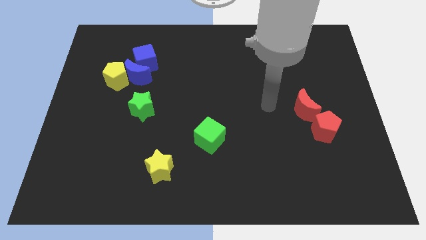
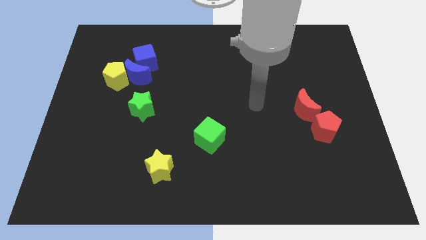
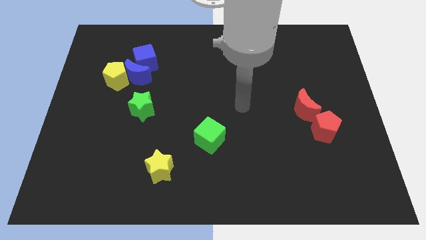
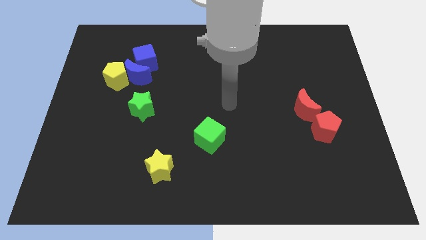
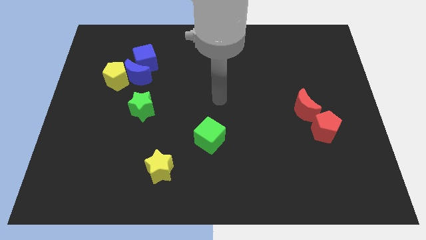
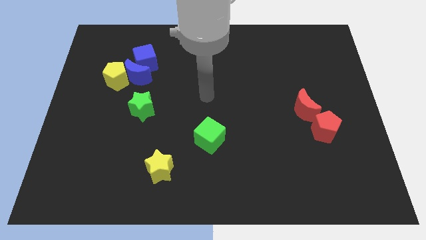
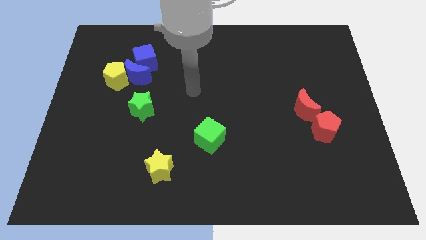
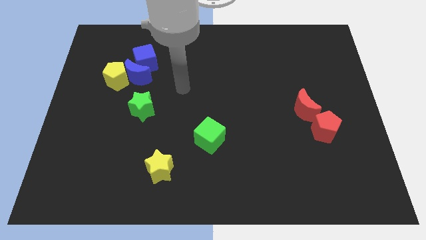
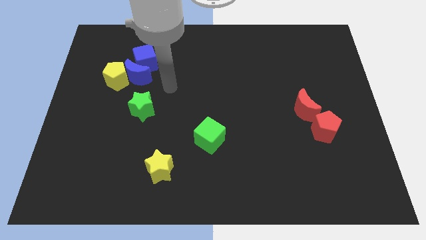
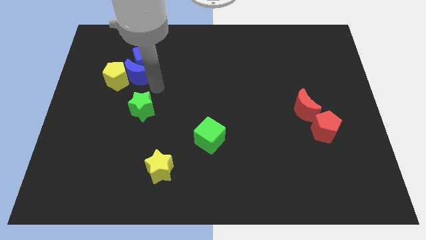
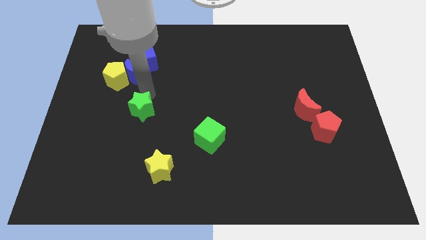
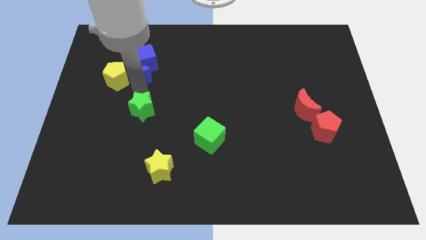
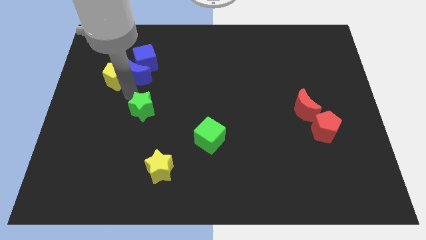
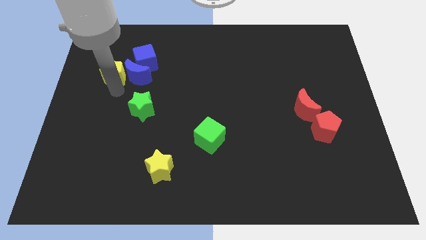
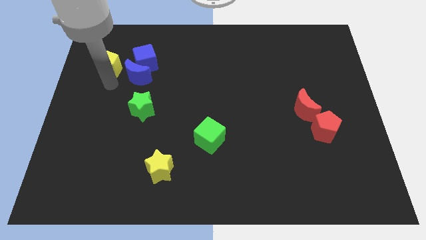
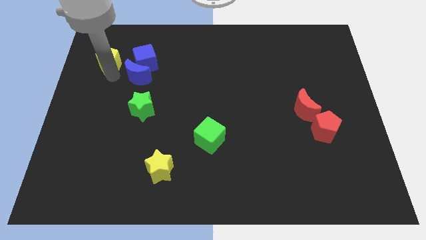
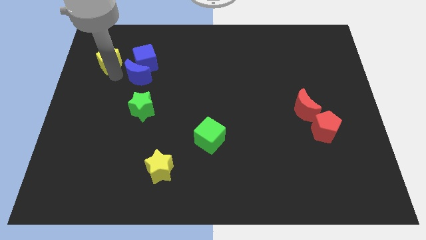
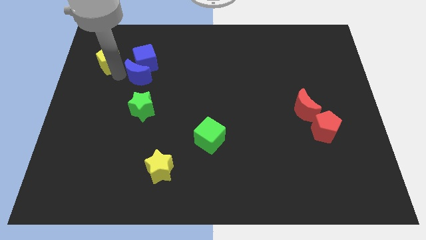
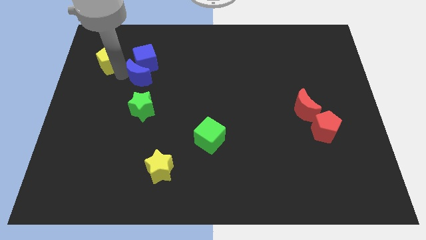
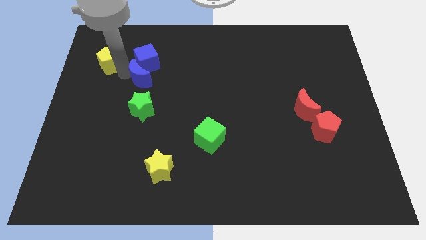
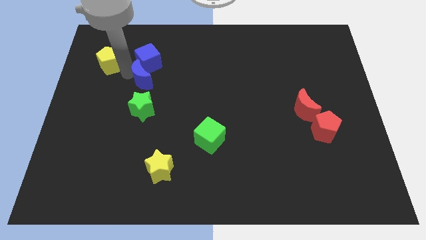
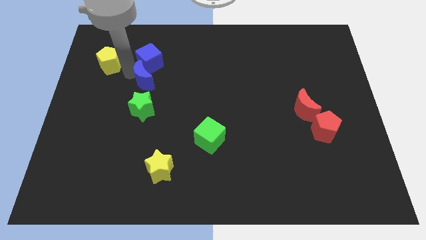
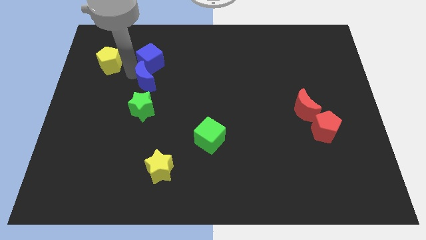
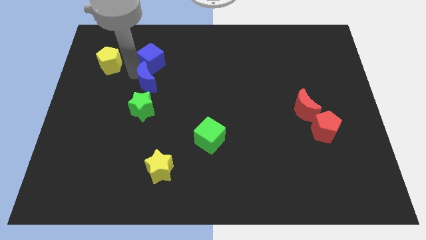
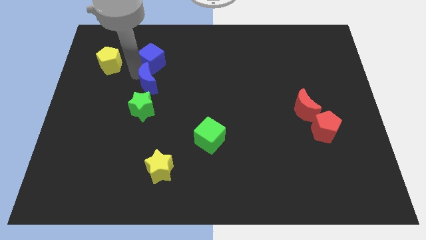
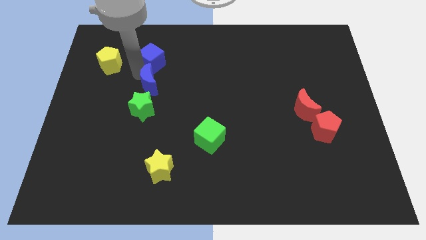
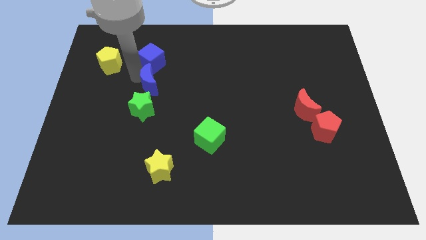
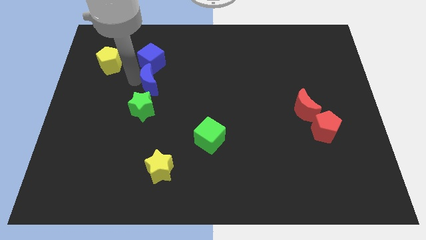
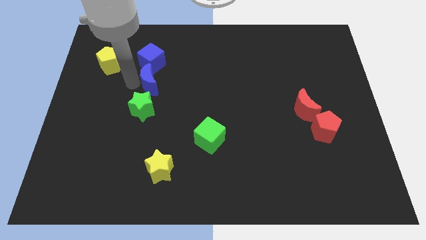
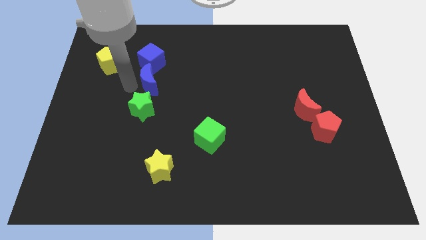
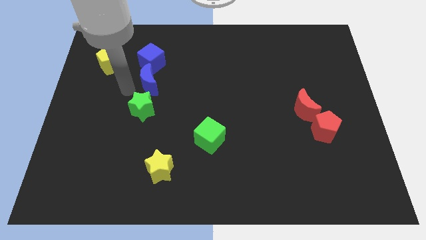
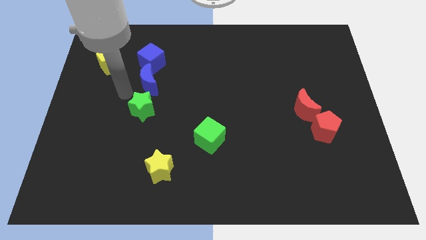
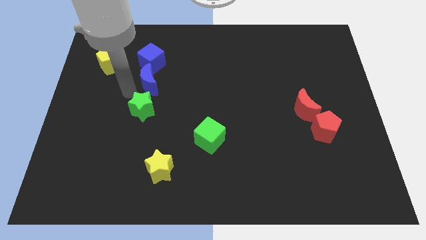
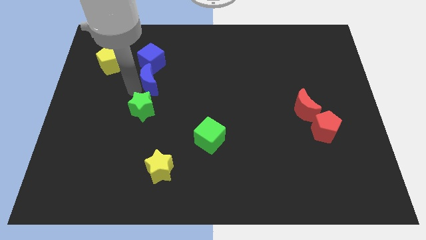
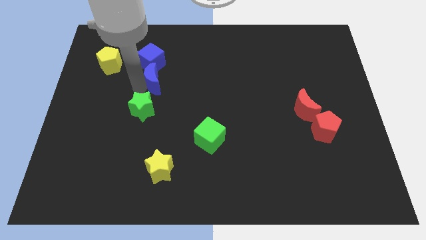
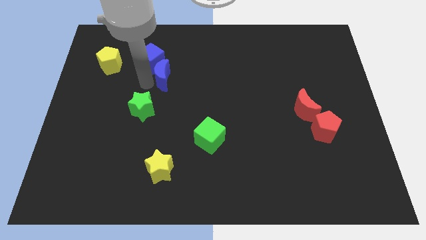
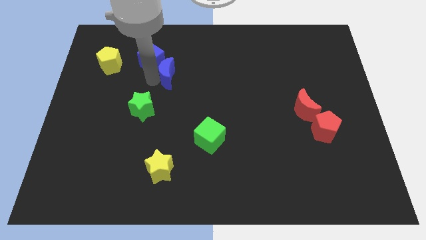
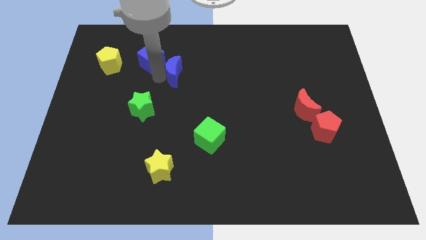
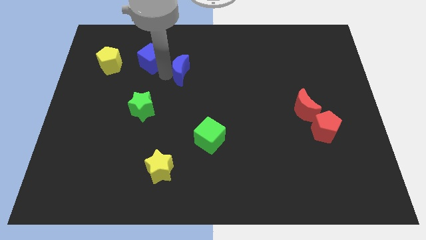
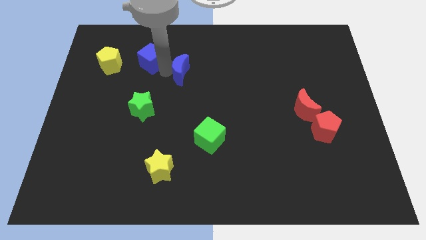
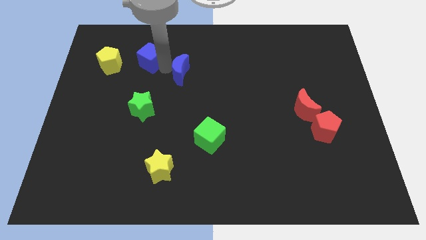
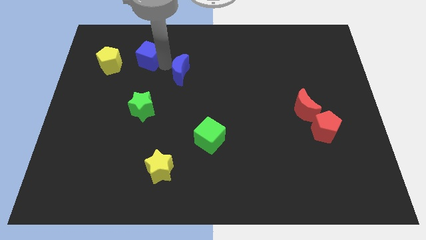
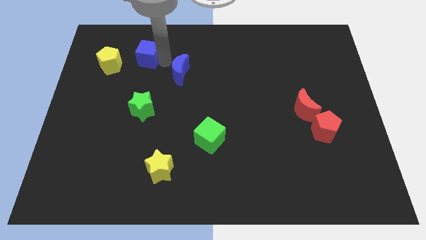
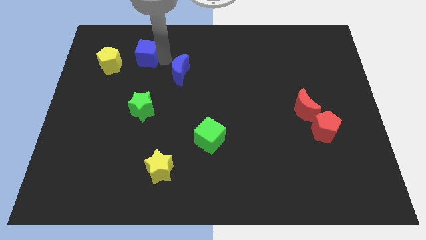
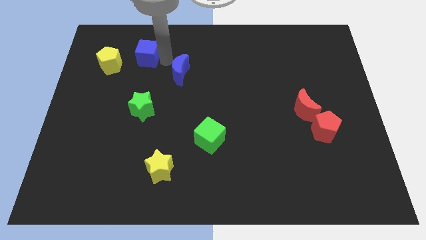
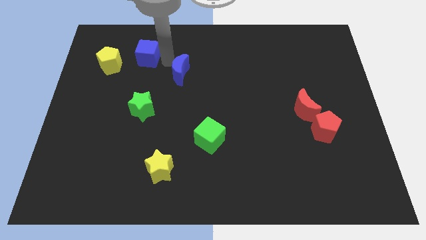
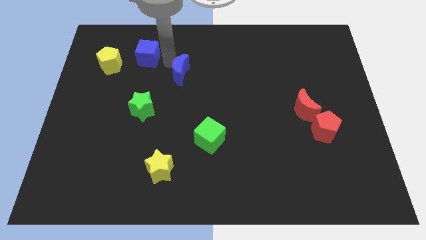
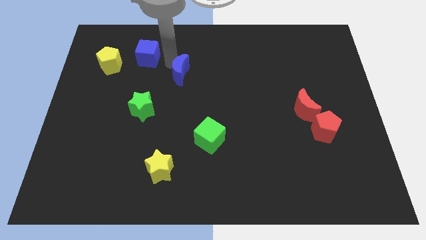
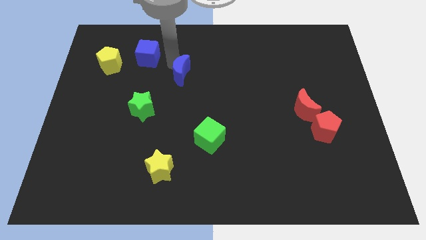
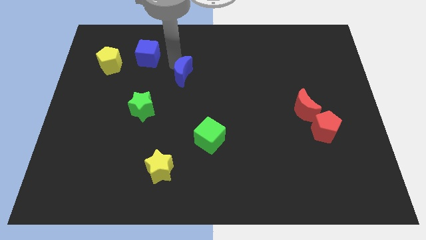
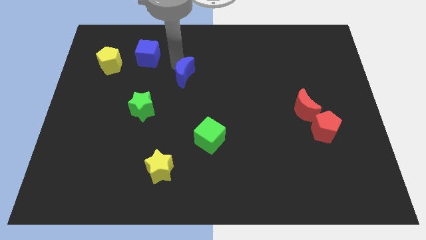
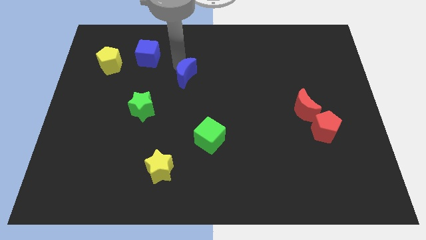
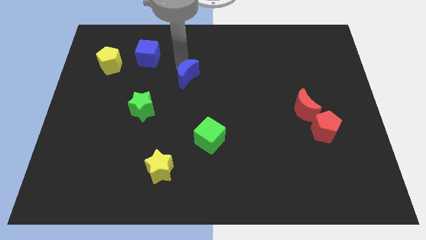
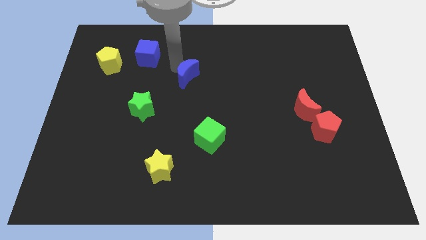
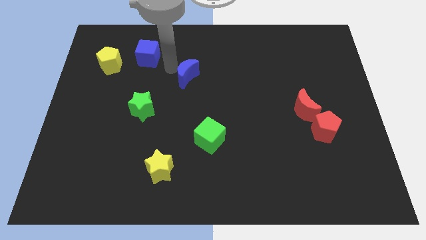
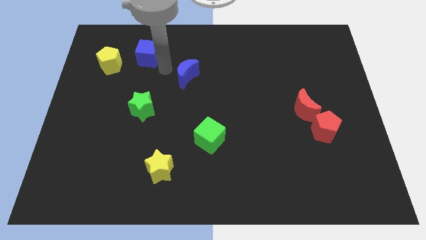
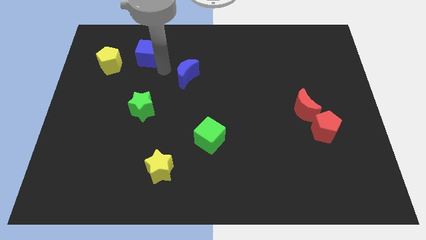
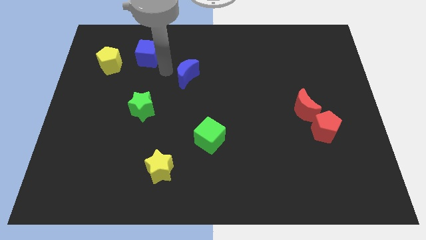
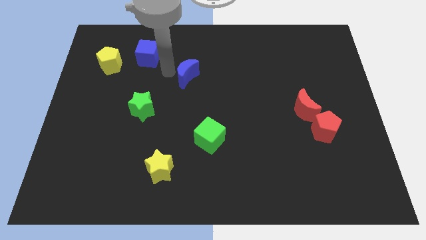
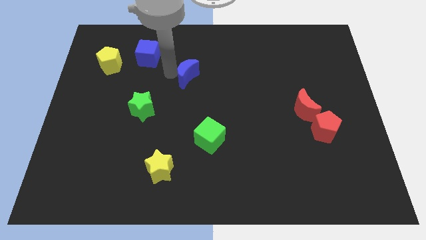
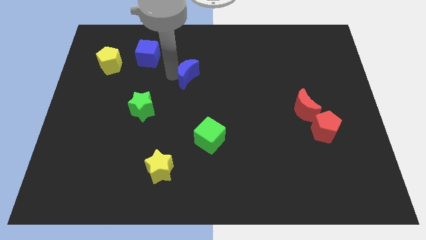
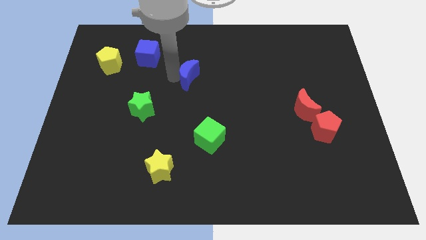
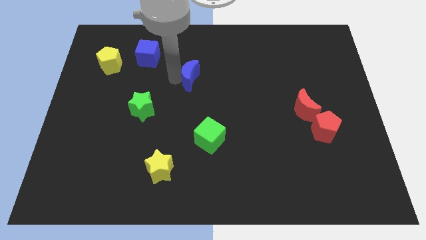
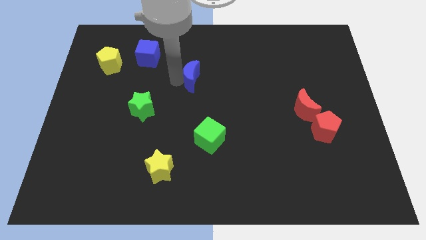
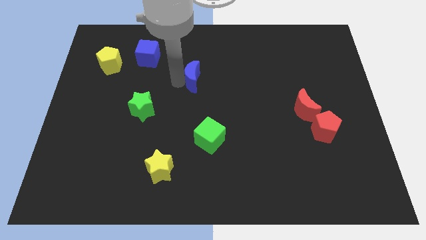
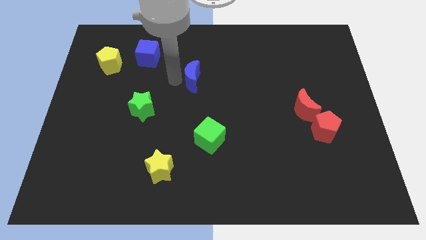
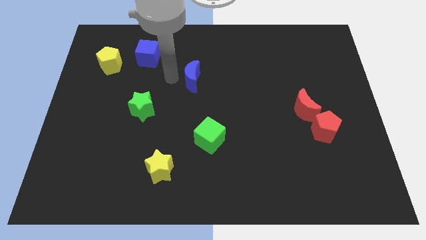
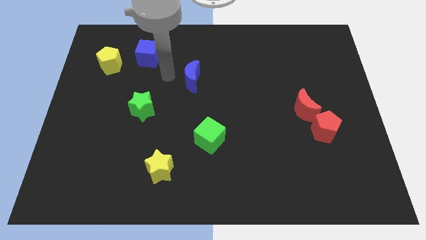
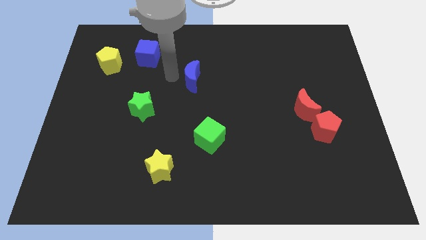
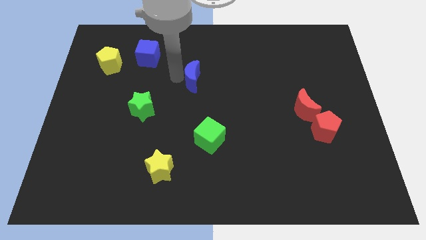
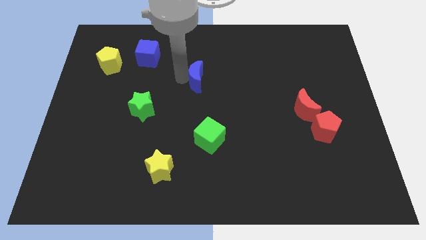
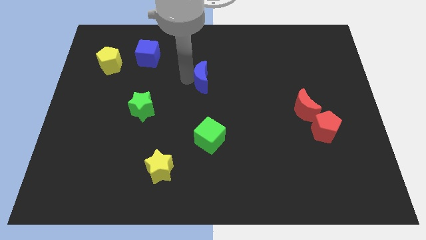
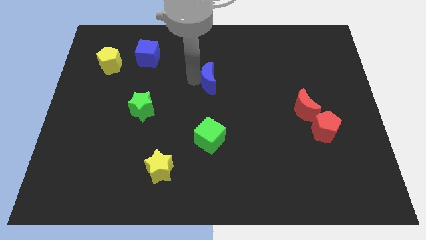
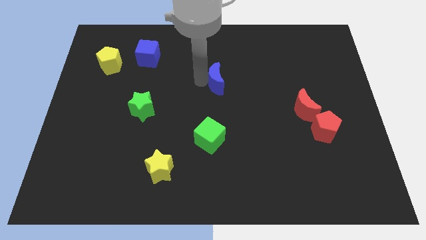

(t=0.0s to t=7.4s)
push the blue moon right

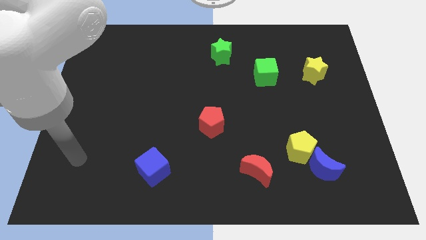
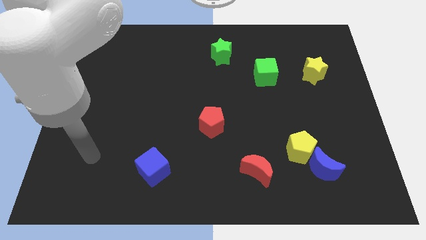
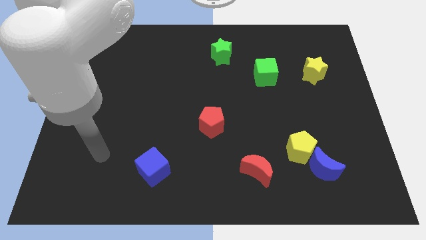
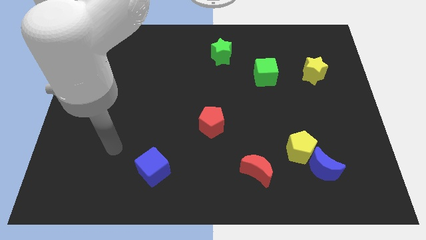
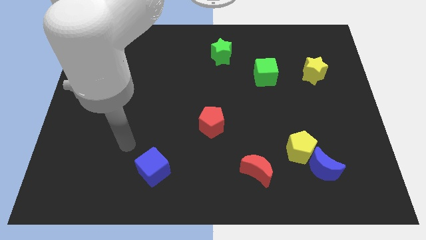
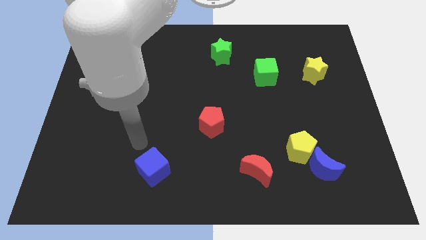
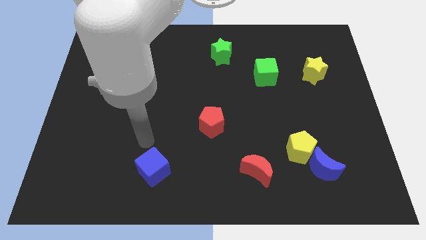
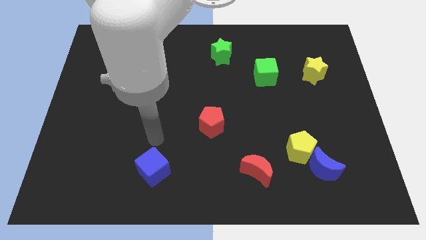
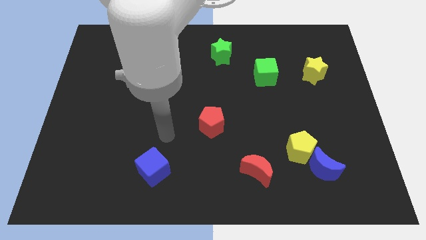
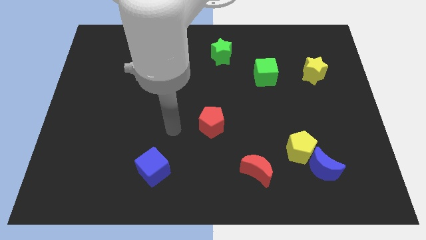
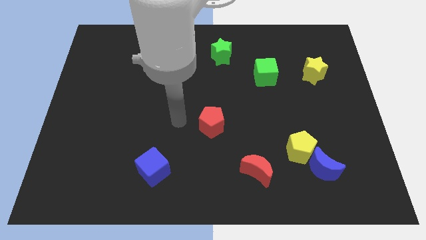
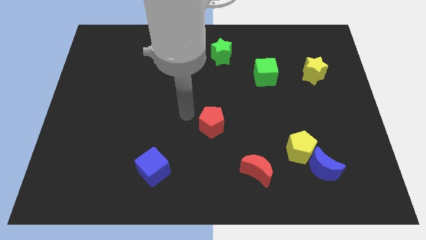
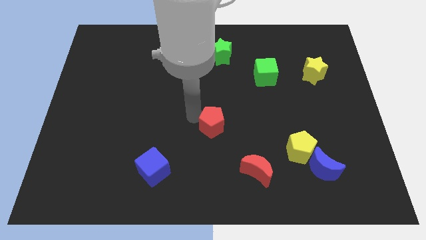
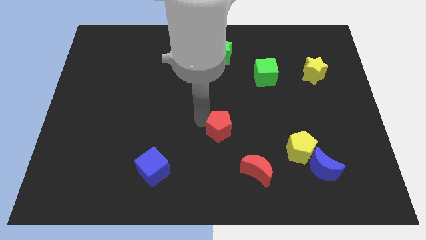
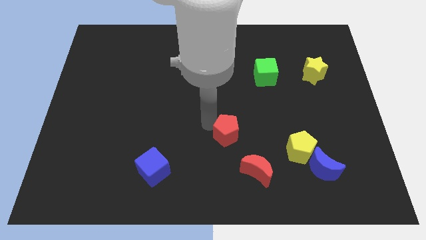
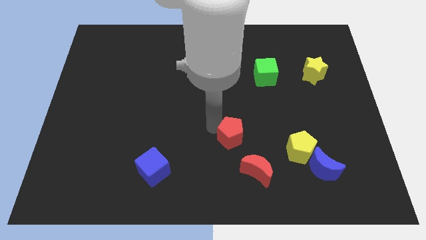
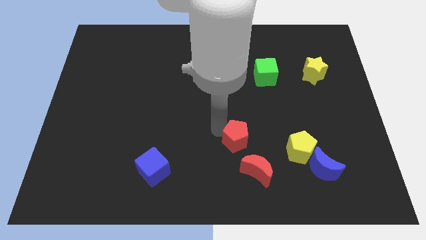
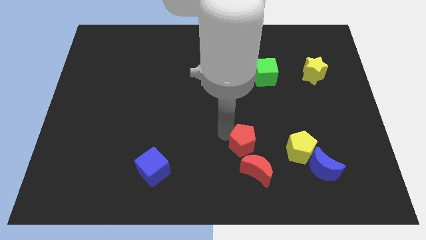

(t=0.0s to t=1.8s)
slightly move the red pentagon downwards and to the right
